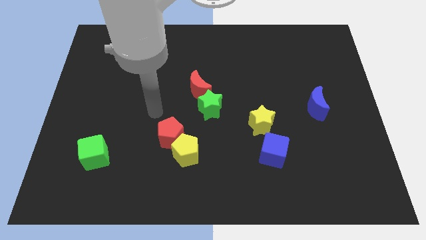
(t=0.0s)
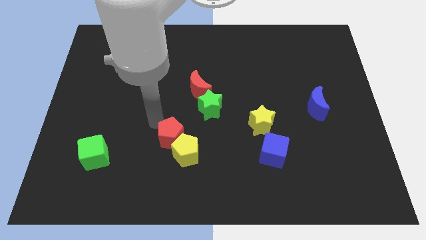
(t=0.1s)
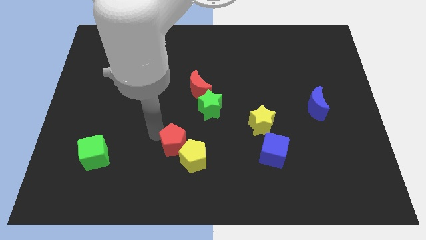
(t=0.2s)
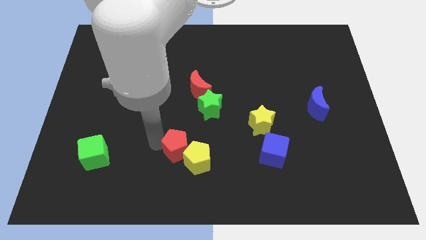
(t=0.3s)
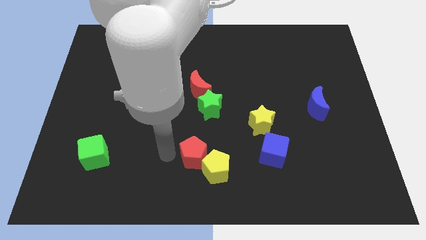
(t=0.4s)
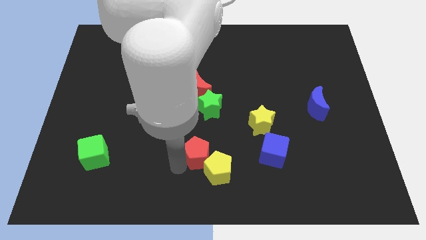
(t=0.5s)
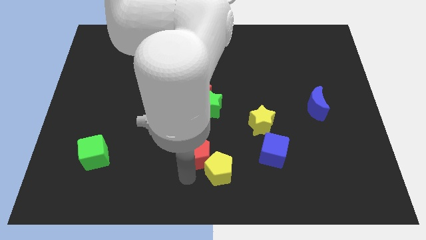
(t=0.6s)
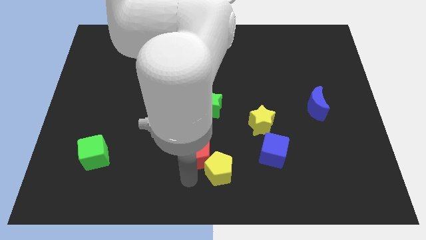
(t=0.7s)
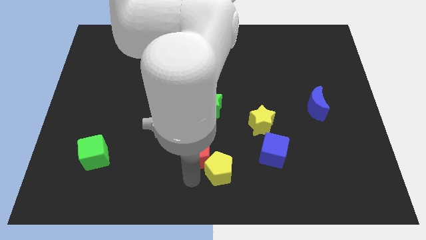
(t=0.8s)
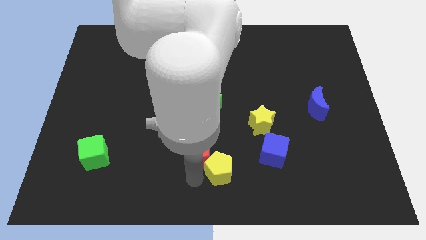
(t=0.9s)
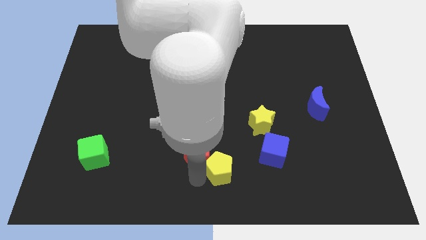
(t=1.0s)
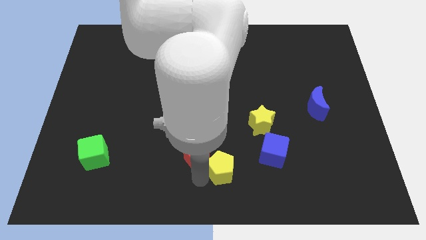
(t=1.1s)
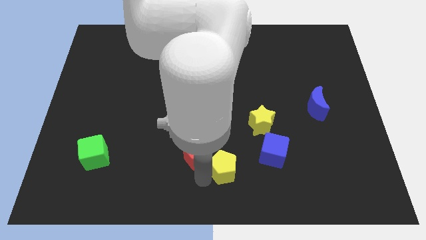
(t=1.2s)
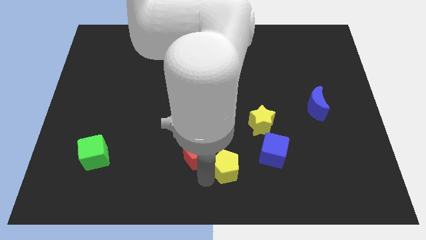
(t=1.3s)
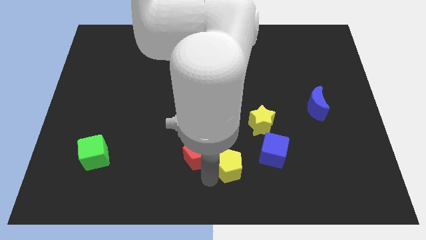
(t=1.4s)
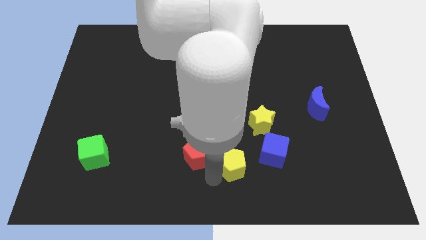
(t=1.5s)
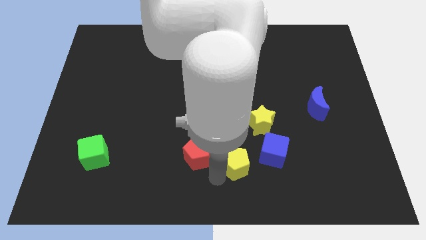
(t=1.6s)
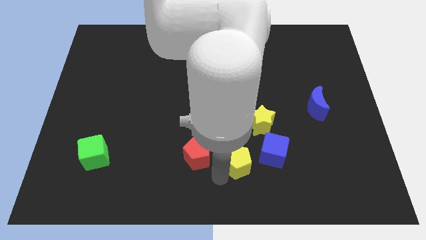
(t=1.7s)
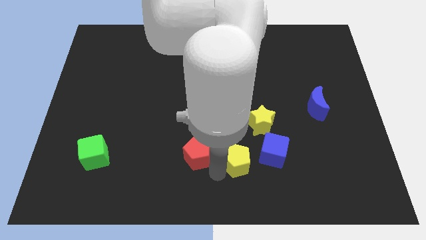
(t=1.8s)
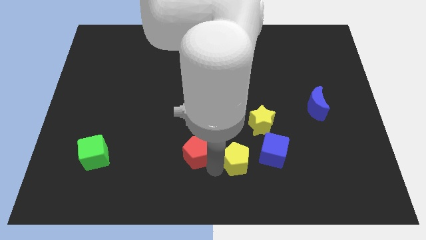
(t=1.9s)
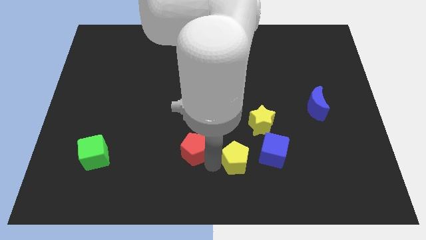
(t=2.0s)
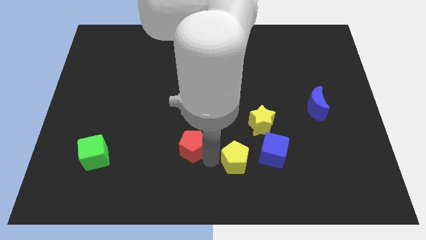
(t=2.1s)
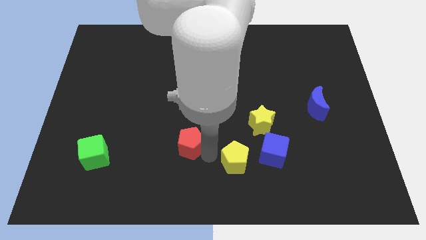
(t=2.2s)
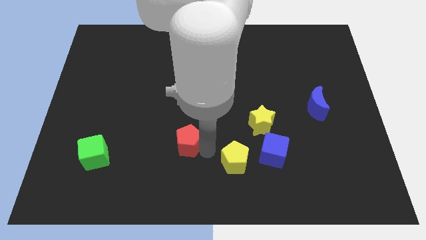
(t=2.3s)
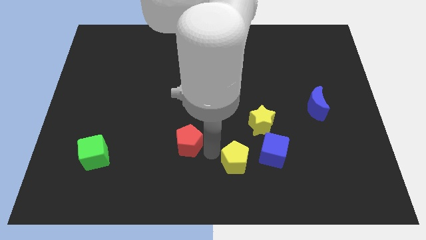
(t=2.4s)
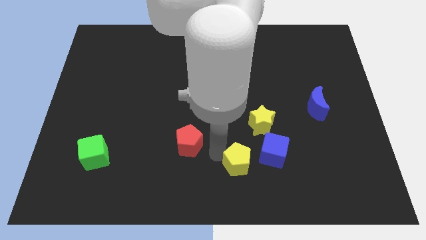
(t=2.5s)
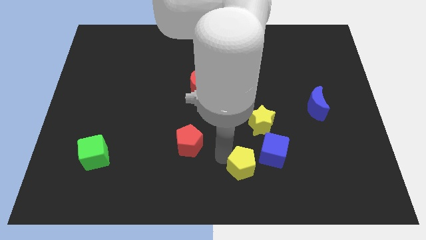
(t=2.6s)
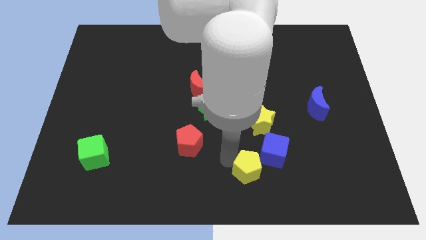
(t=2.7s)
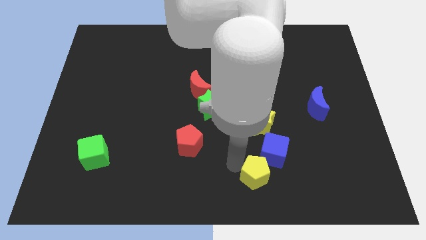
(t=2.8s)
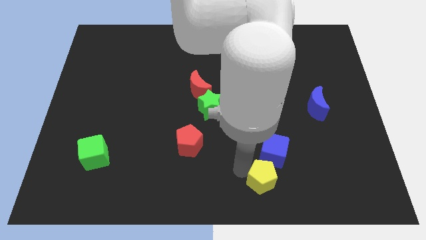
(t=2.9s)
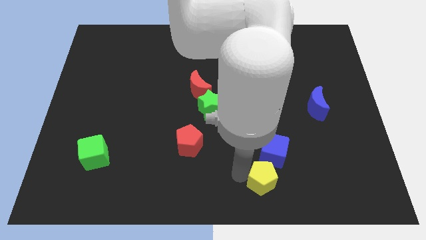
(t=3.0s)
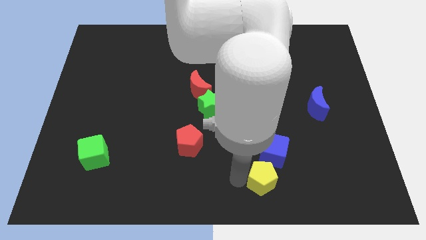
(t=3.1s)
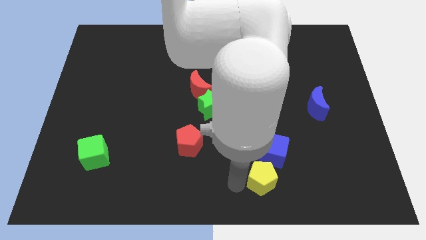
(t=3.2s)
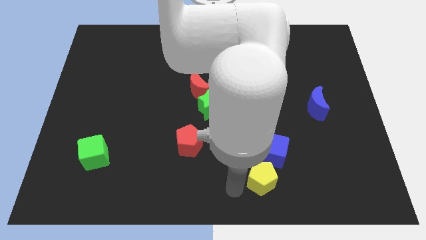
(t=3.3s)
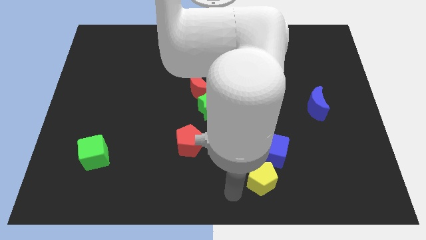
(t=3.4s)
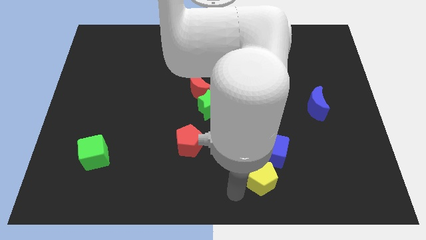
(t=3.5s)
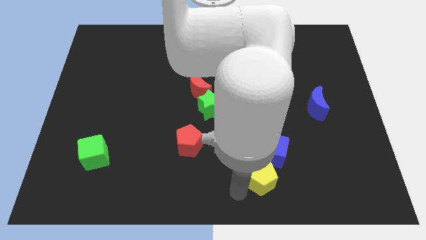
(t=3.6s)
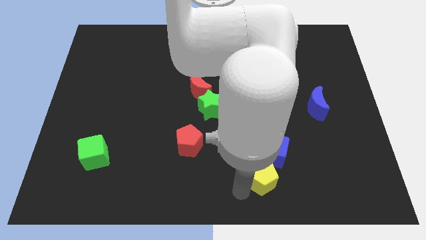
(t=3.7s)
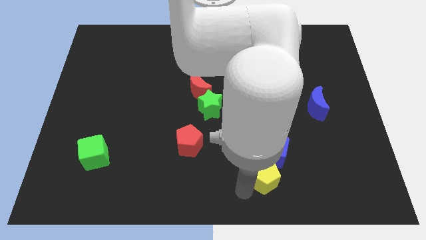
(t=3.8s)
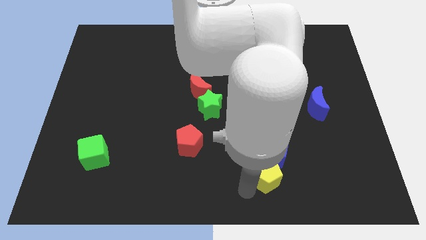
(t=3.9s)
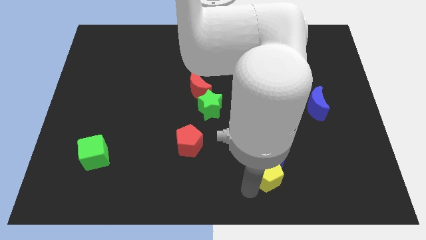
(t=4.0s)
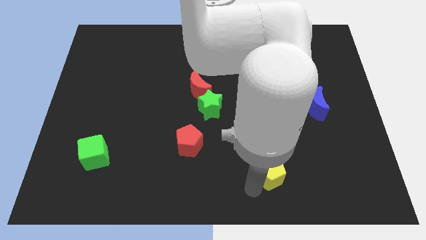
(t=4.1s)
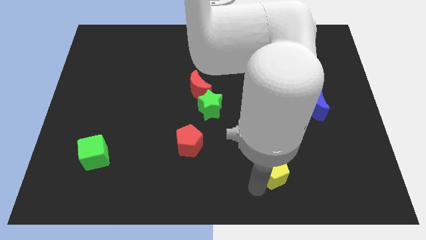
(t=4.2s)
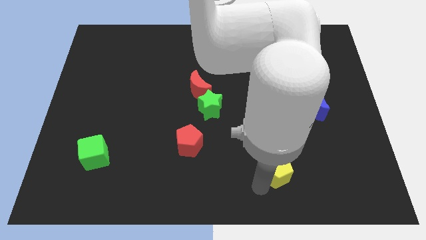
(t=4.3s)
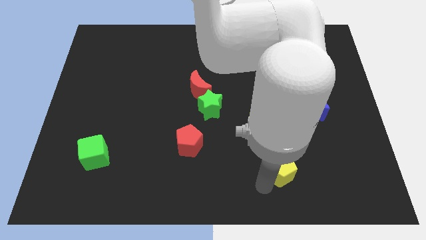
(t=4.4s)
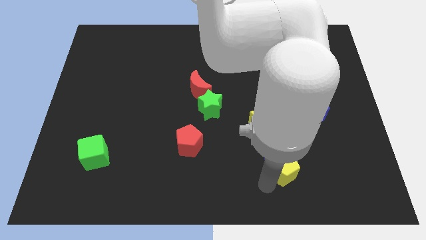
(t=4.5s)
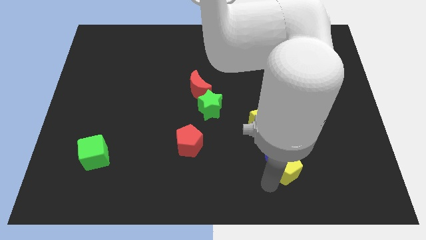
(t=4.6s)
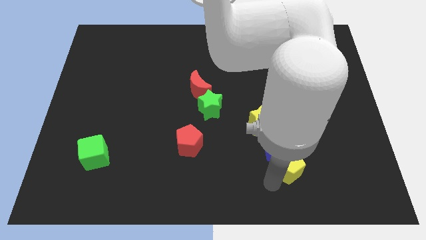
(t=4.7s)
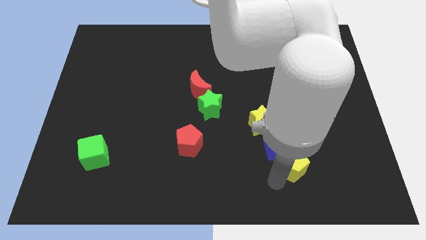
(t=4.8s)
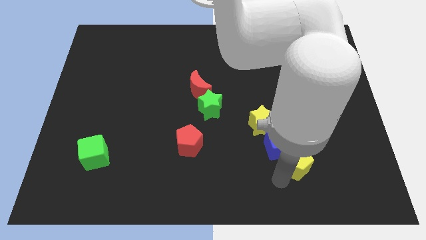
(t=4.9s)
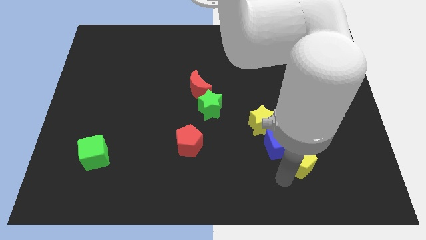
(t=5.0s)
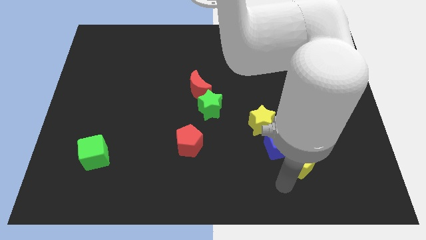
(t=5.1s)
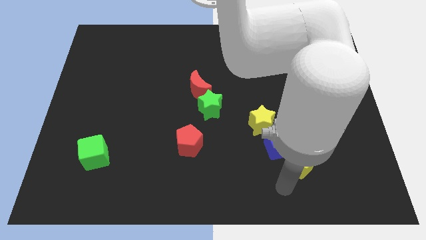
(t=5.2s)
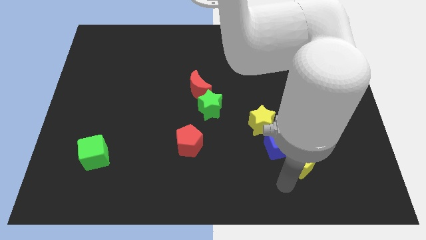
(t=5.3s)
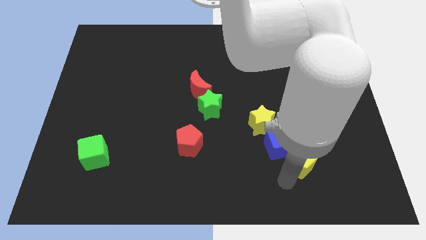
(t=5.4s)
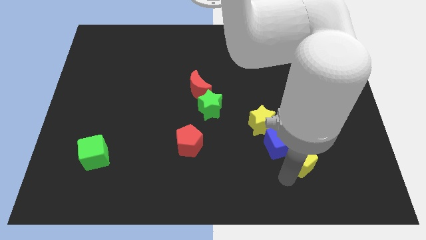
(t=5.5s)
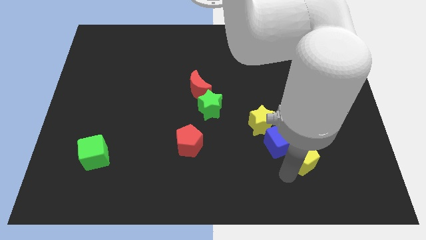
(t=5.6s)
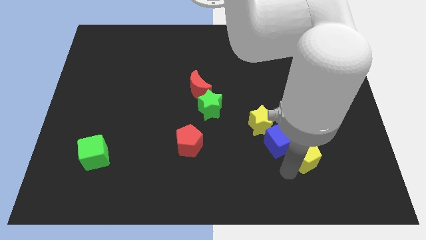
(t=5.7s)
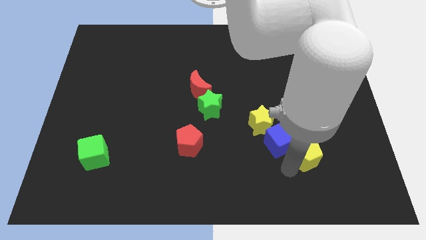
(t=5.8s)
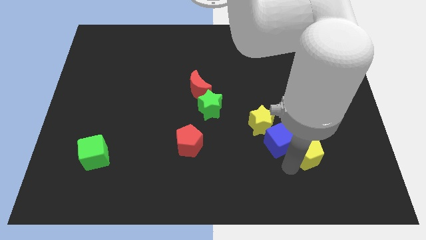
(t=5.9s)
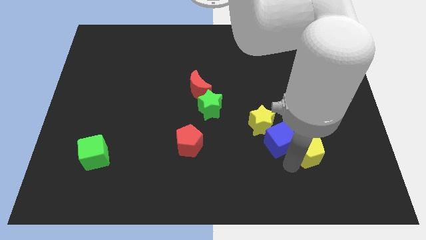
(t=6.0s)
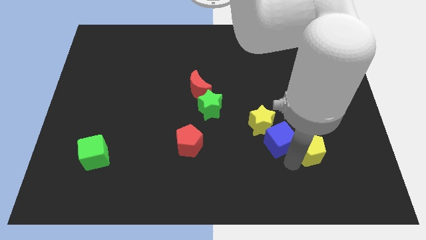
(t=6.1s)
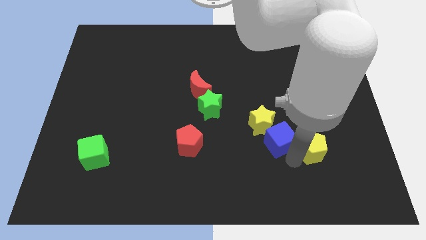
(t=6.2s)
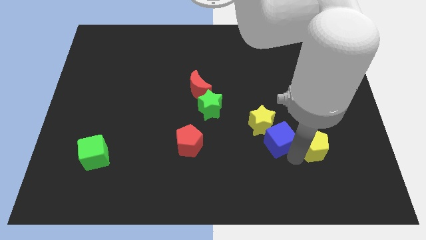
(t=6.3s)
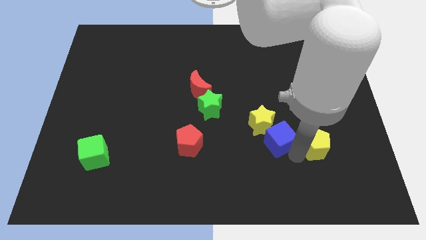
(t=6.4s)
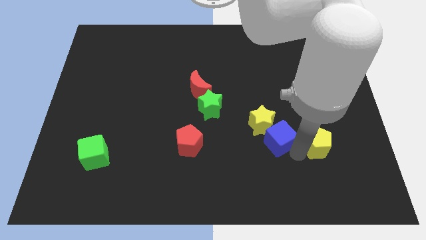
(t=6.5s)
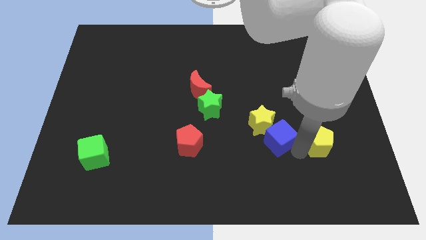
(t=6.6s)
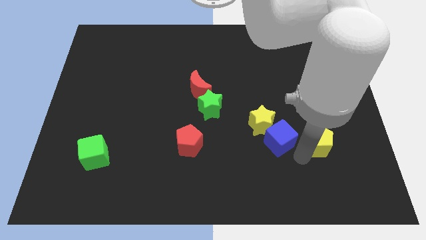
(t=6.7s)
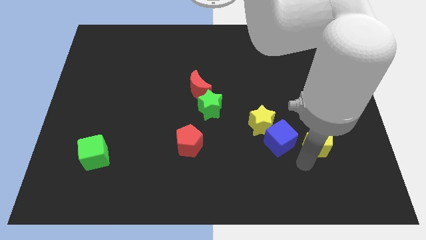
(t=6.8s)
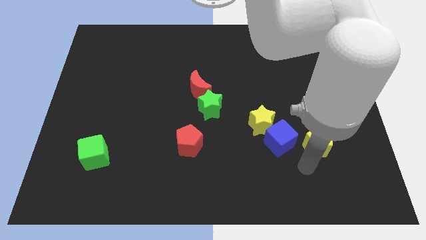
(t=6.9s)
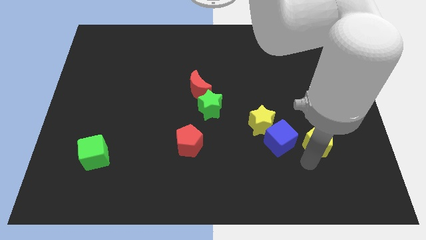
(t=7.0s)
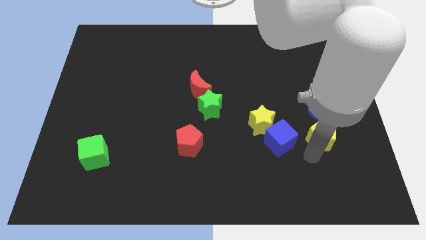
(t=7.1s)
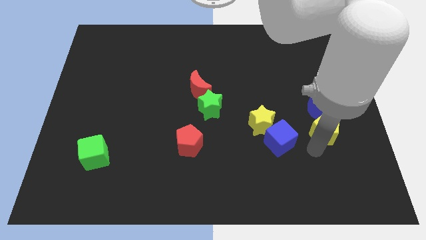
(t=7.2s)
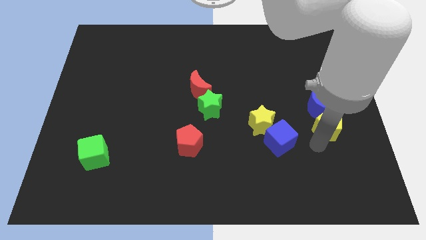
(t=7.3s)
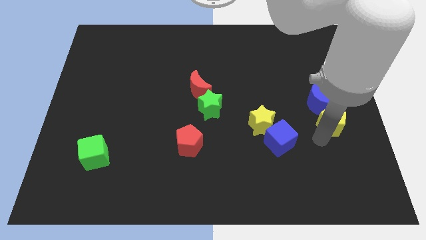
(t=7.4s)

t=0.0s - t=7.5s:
move the yellow pentagon to the right side
